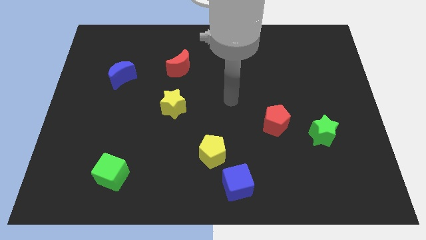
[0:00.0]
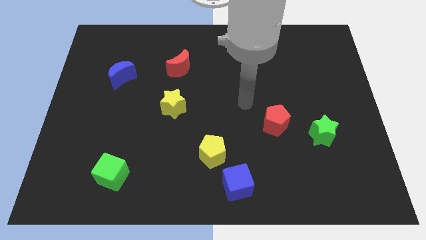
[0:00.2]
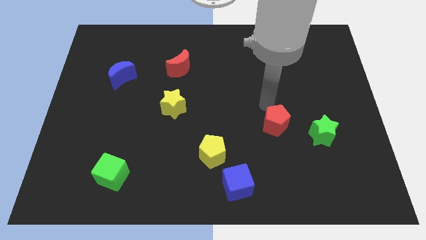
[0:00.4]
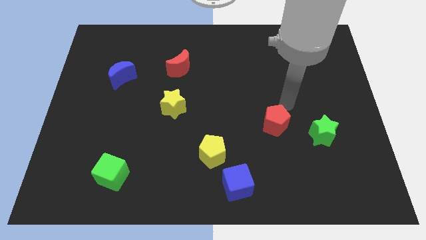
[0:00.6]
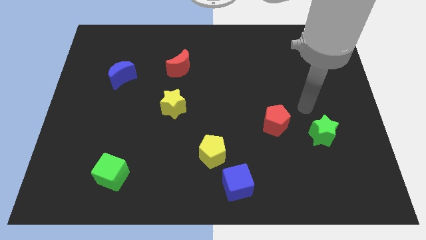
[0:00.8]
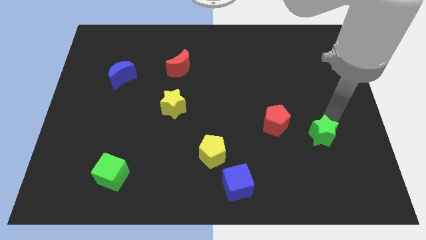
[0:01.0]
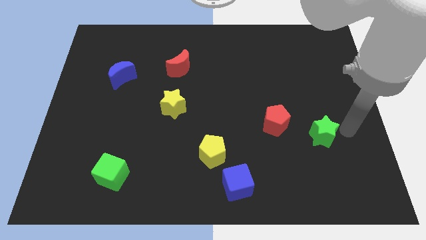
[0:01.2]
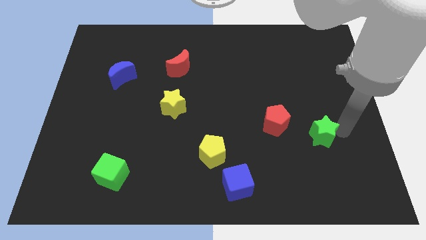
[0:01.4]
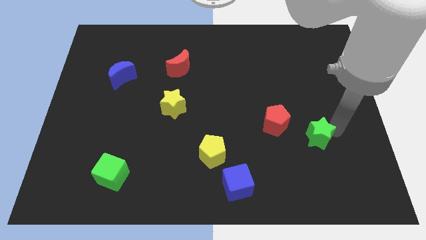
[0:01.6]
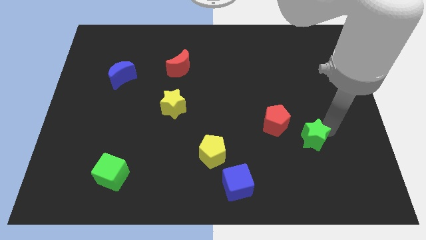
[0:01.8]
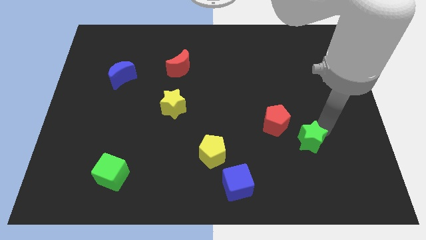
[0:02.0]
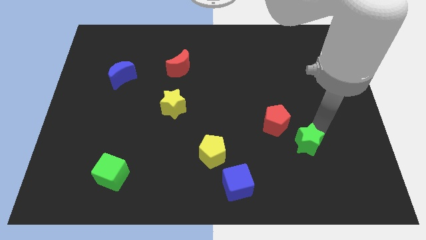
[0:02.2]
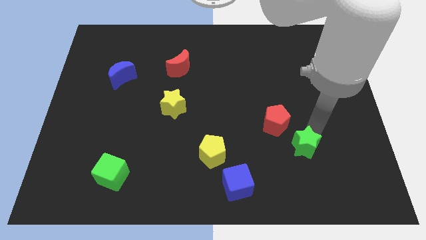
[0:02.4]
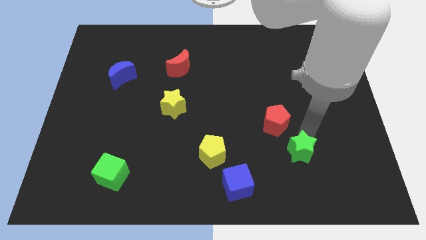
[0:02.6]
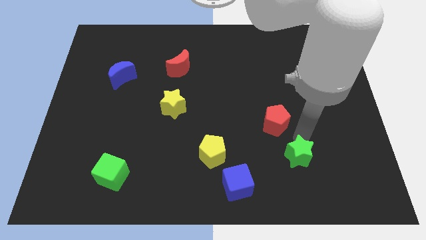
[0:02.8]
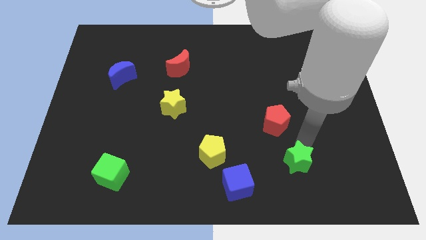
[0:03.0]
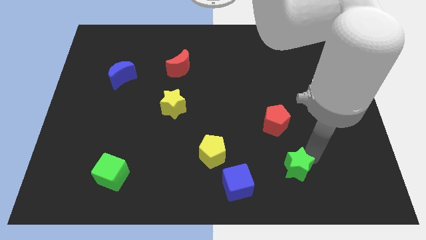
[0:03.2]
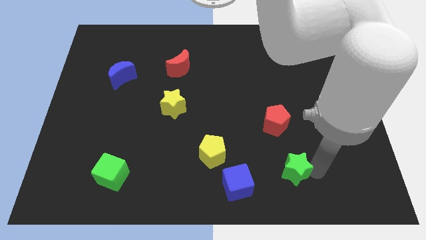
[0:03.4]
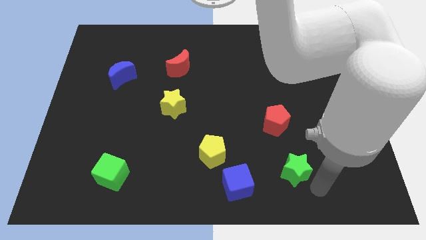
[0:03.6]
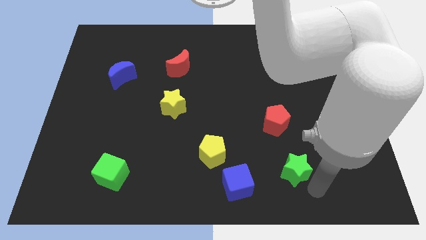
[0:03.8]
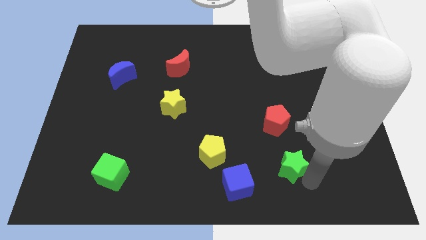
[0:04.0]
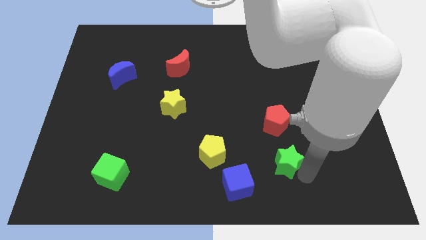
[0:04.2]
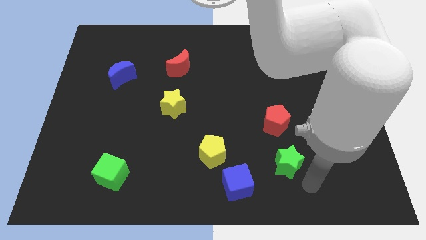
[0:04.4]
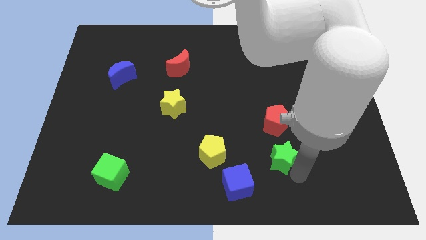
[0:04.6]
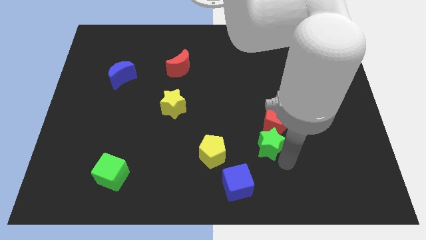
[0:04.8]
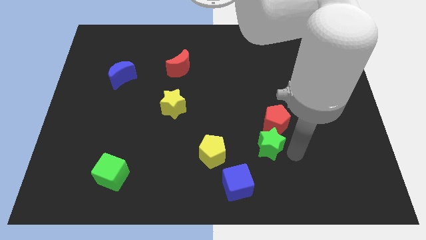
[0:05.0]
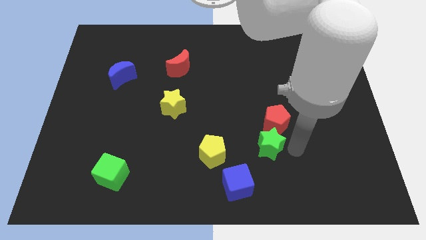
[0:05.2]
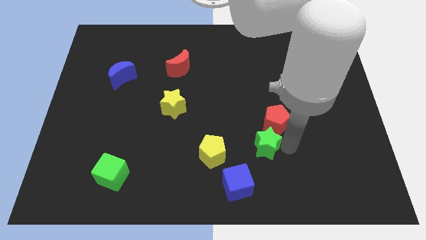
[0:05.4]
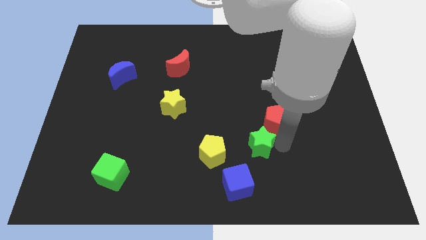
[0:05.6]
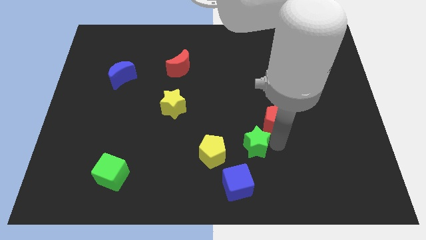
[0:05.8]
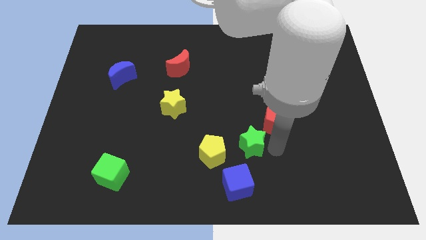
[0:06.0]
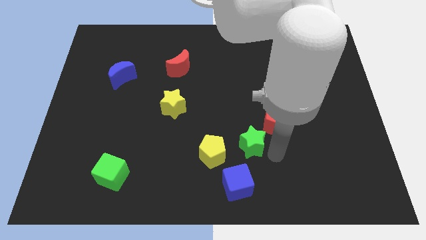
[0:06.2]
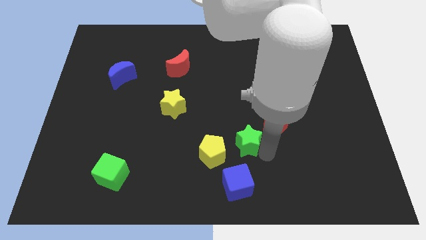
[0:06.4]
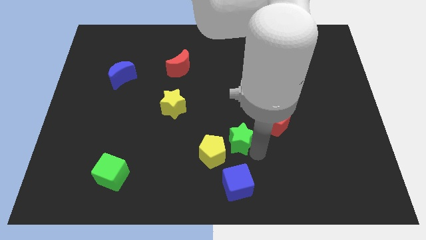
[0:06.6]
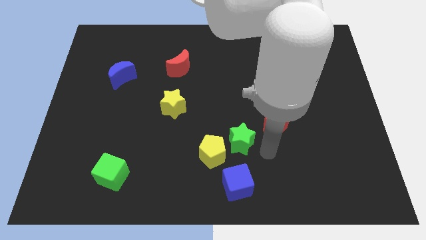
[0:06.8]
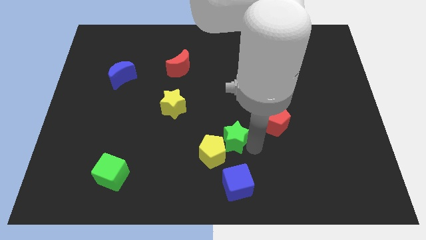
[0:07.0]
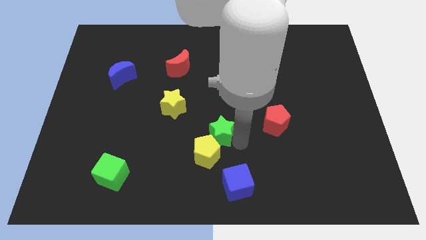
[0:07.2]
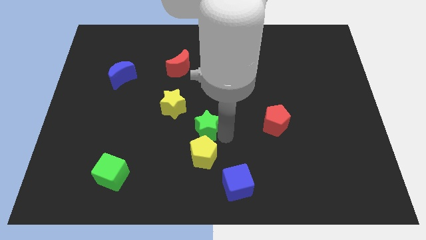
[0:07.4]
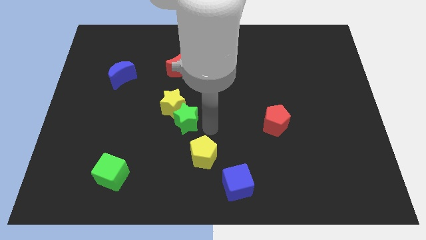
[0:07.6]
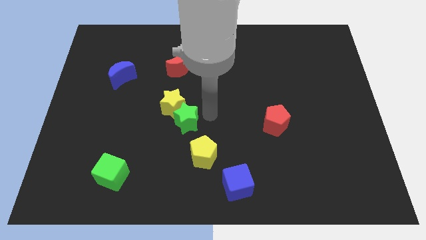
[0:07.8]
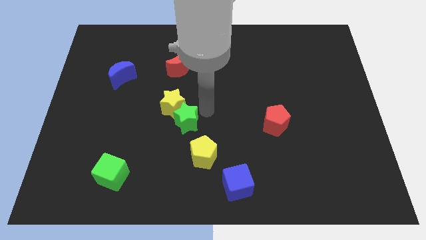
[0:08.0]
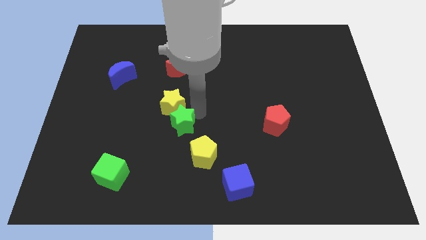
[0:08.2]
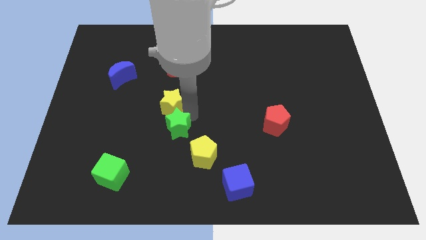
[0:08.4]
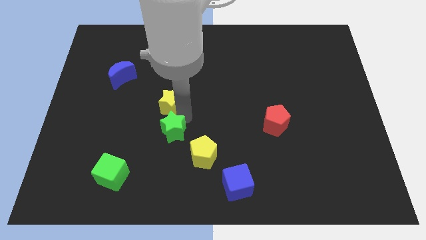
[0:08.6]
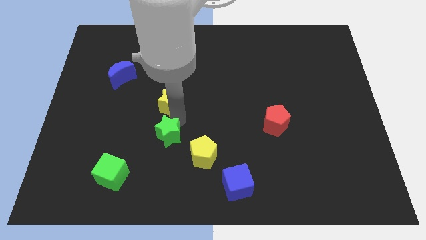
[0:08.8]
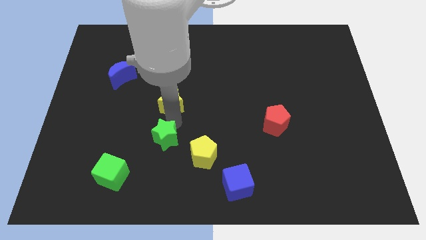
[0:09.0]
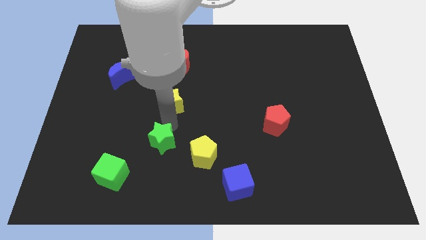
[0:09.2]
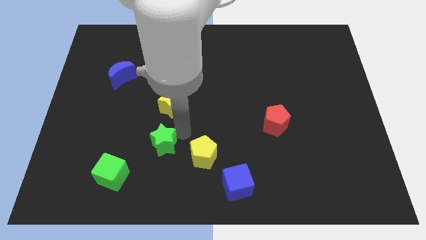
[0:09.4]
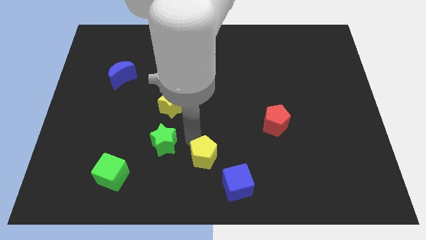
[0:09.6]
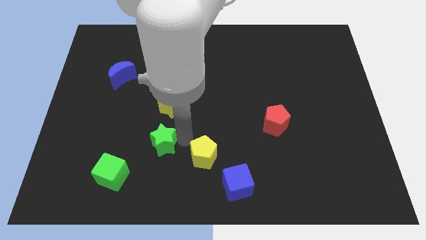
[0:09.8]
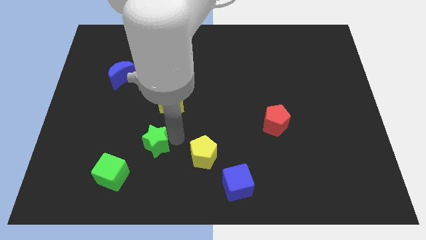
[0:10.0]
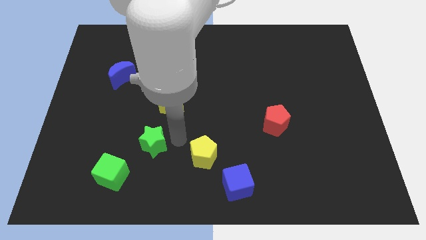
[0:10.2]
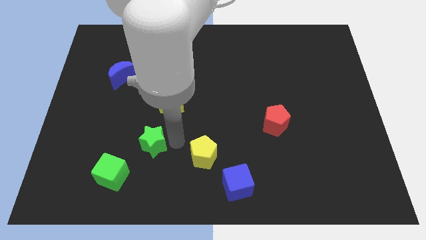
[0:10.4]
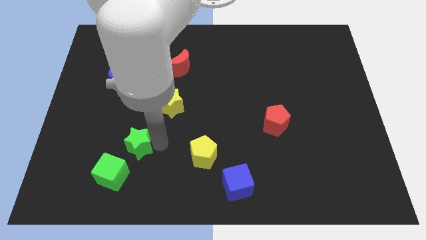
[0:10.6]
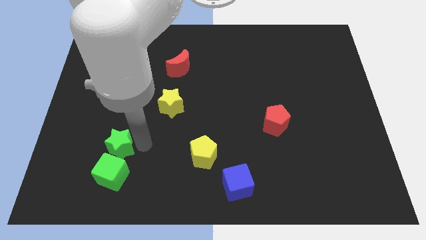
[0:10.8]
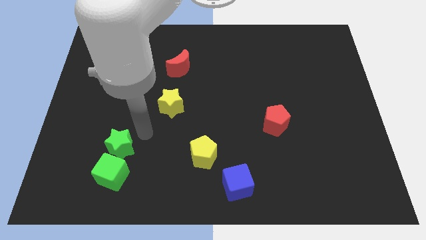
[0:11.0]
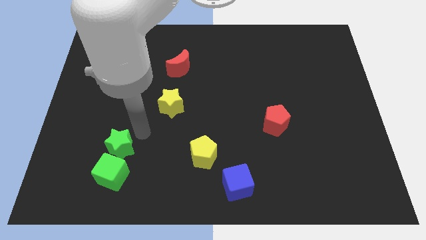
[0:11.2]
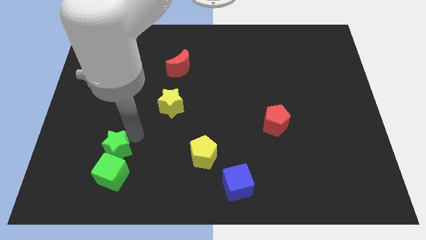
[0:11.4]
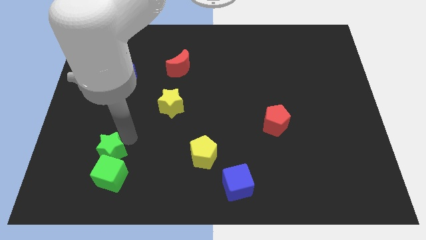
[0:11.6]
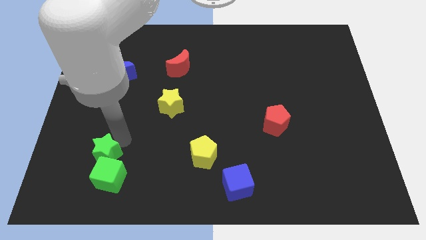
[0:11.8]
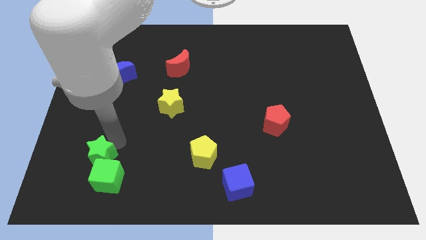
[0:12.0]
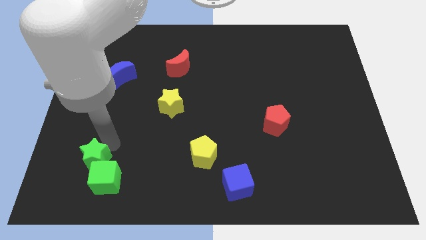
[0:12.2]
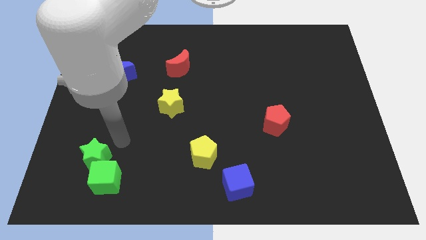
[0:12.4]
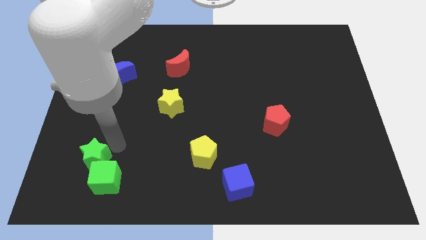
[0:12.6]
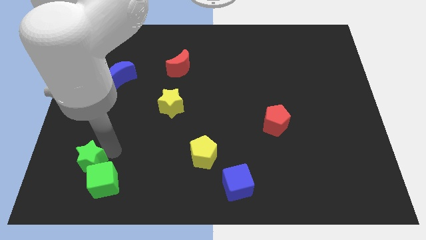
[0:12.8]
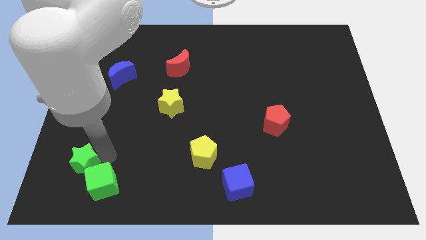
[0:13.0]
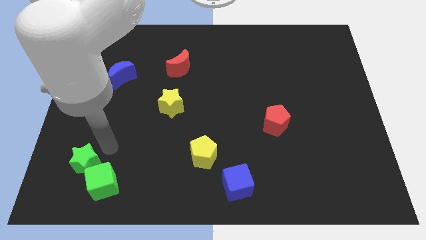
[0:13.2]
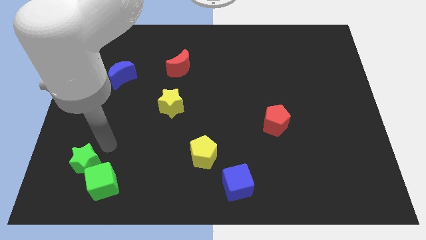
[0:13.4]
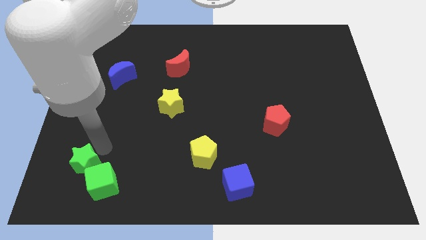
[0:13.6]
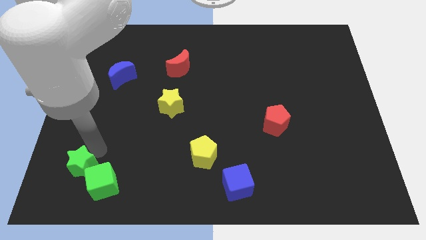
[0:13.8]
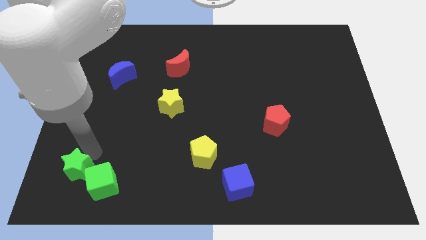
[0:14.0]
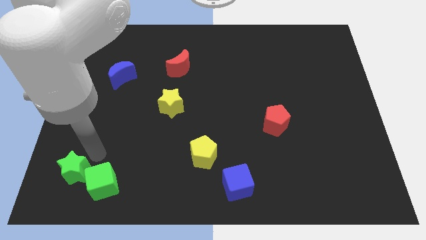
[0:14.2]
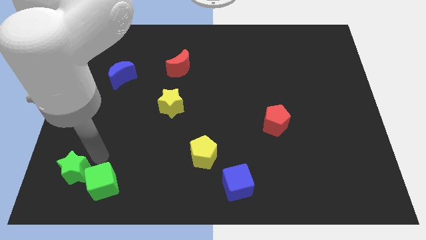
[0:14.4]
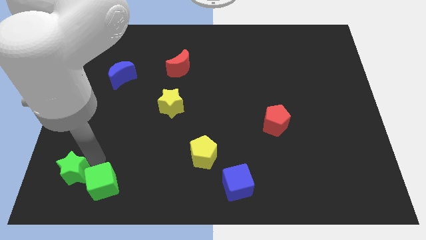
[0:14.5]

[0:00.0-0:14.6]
put the green star to the lower left corner
